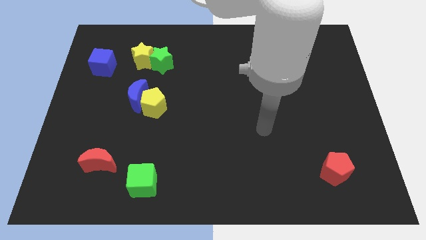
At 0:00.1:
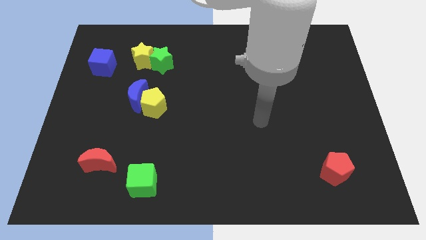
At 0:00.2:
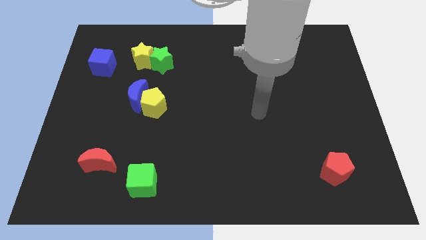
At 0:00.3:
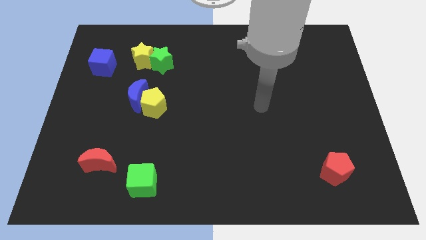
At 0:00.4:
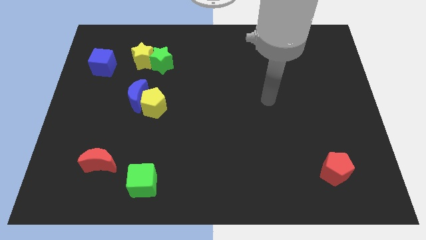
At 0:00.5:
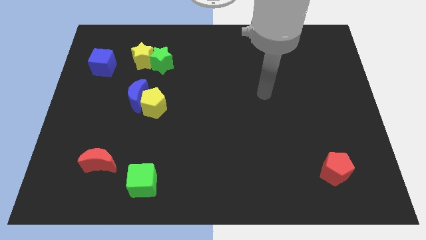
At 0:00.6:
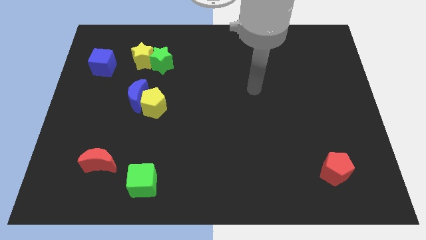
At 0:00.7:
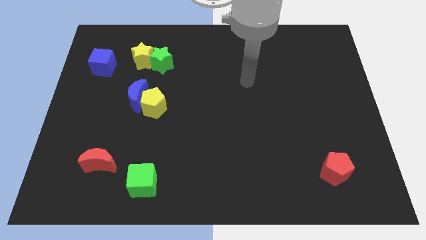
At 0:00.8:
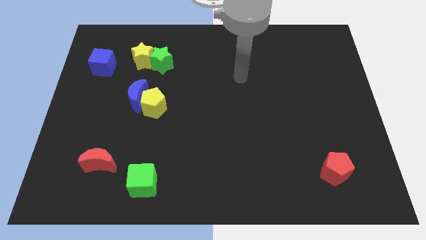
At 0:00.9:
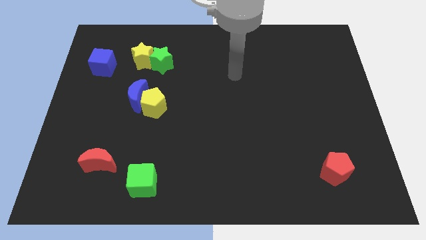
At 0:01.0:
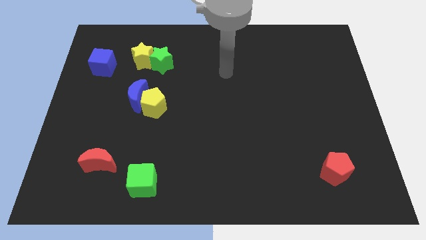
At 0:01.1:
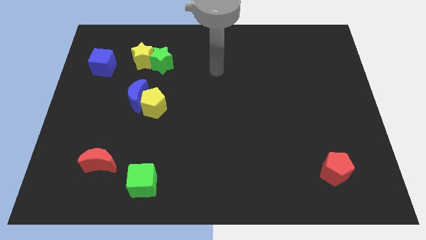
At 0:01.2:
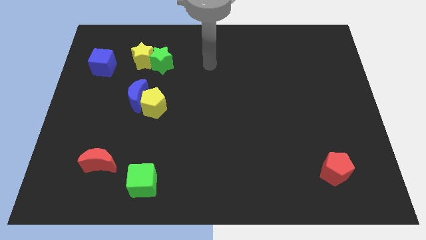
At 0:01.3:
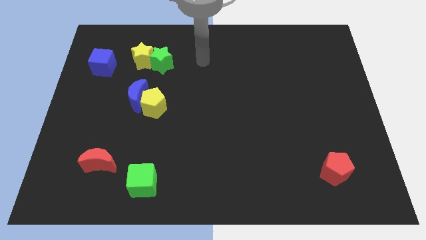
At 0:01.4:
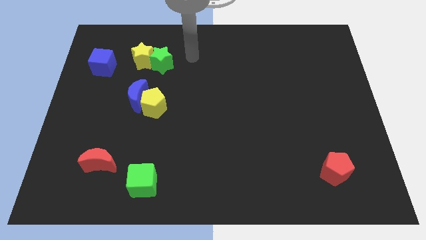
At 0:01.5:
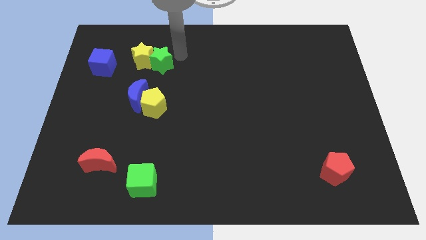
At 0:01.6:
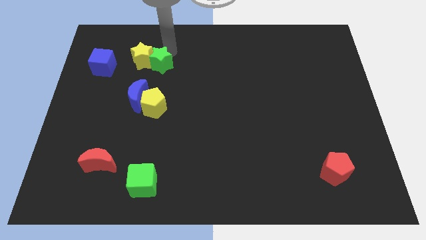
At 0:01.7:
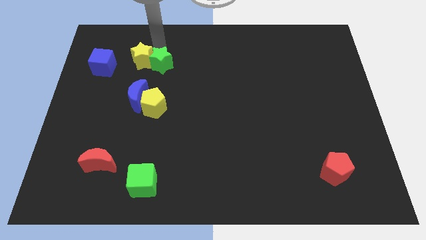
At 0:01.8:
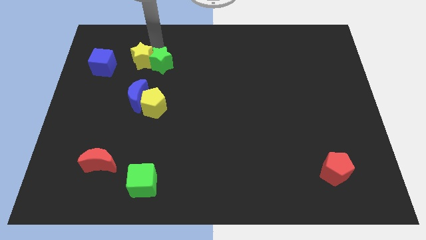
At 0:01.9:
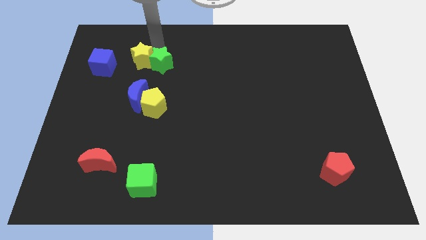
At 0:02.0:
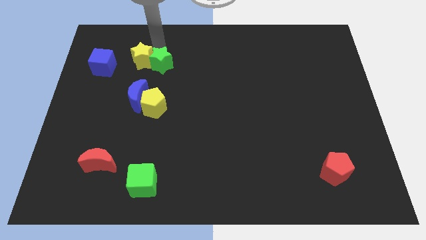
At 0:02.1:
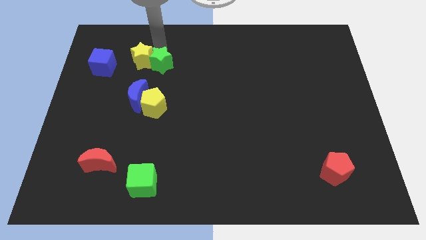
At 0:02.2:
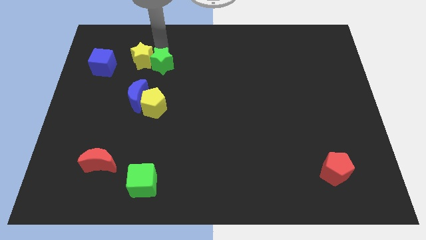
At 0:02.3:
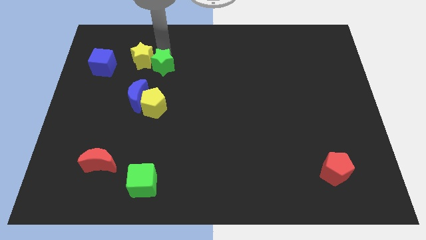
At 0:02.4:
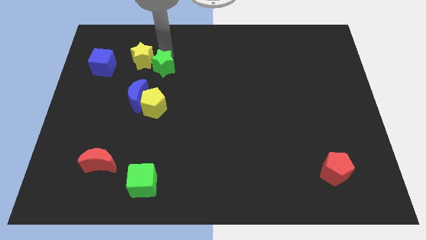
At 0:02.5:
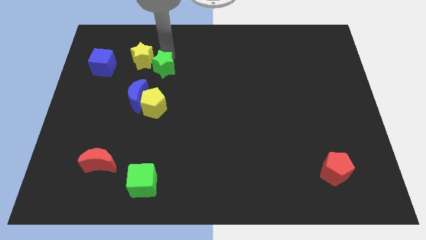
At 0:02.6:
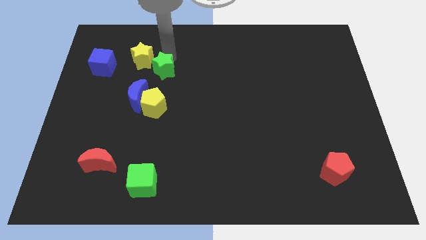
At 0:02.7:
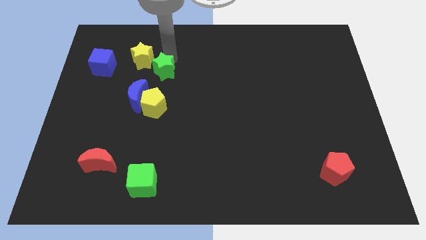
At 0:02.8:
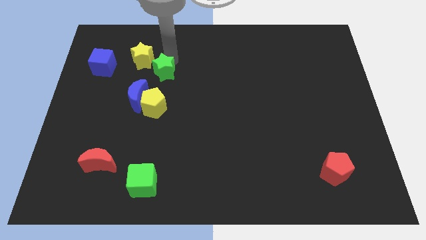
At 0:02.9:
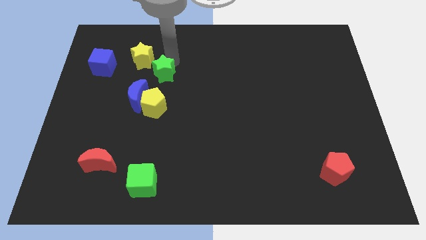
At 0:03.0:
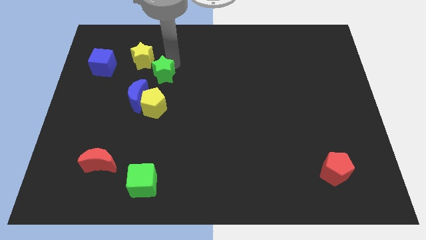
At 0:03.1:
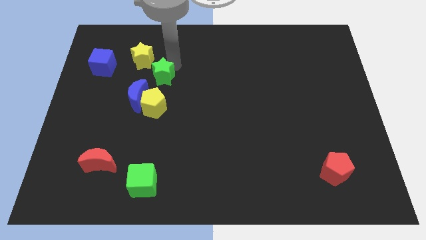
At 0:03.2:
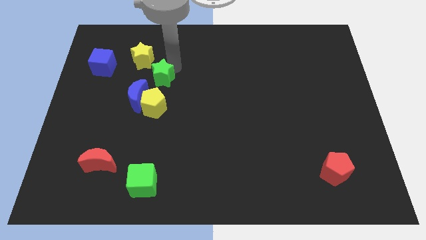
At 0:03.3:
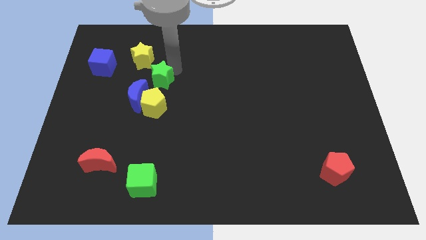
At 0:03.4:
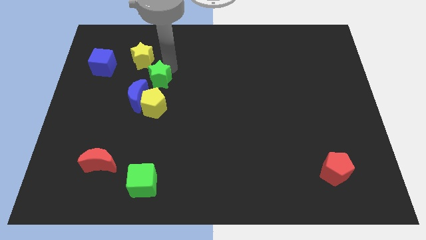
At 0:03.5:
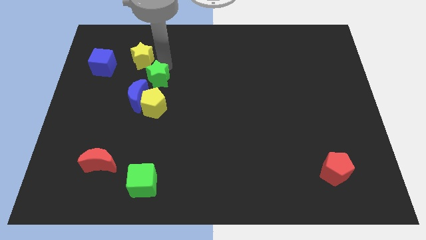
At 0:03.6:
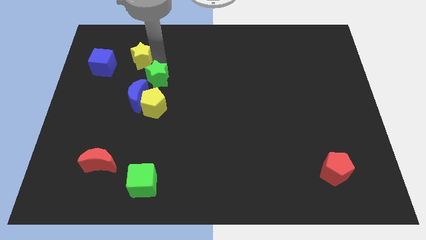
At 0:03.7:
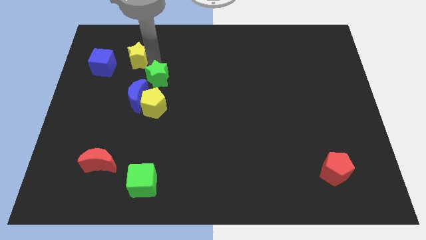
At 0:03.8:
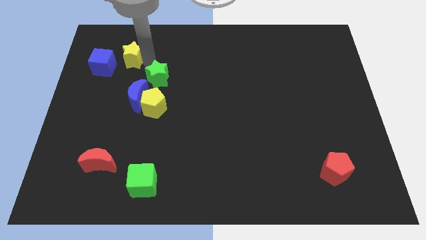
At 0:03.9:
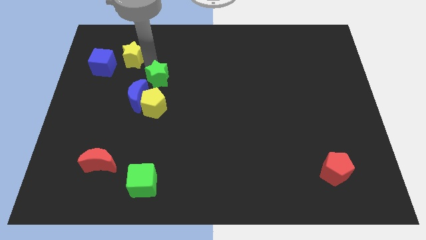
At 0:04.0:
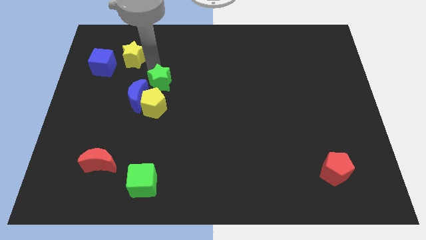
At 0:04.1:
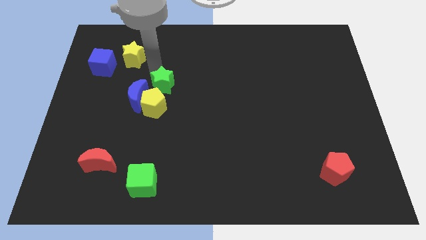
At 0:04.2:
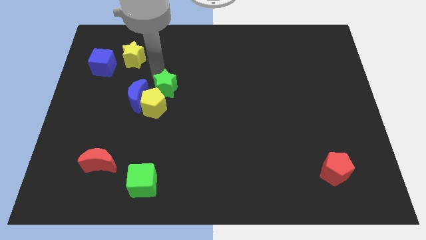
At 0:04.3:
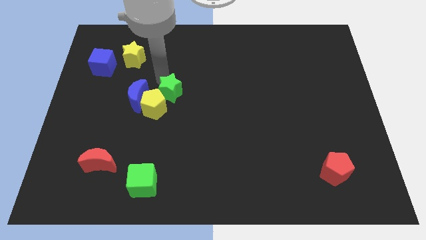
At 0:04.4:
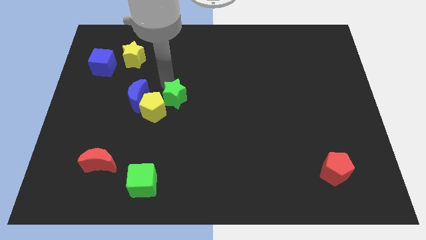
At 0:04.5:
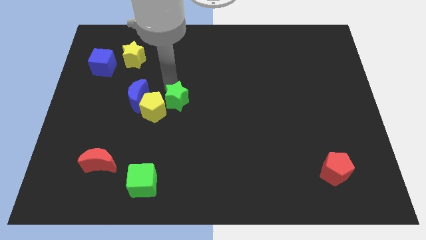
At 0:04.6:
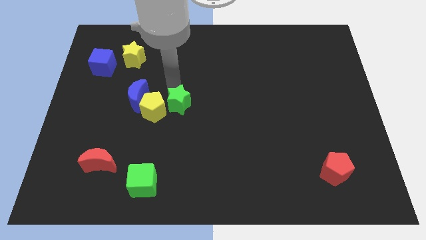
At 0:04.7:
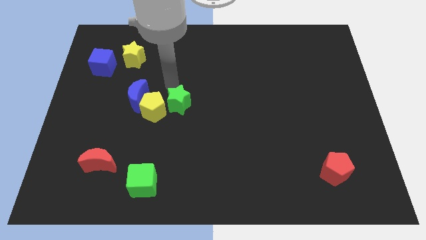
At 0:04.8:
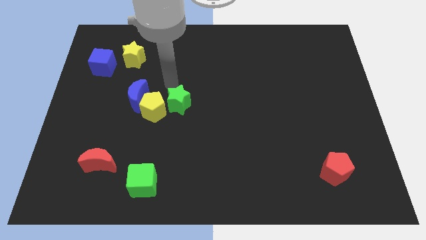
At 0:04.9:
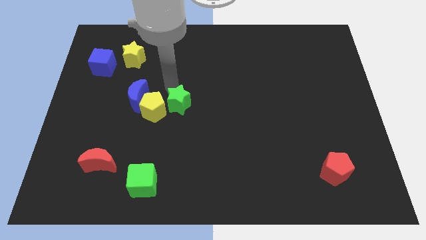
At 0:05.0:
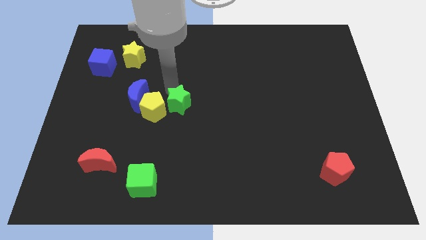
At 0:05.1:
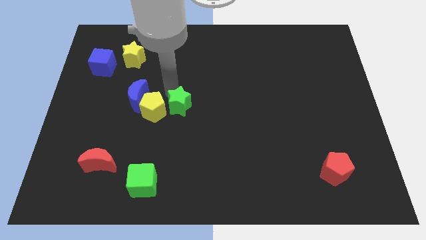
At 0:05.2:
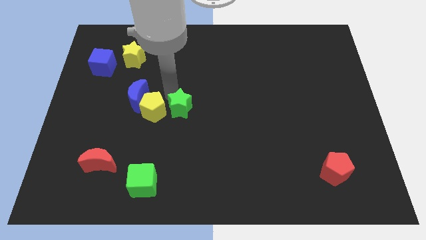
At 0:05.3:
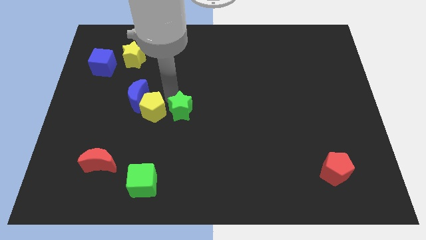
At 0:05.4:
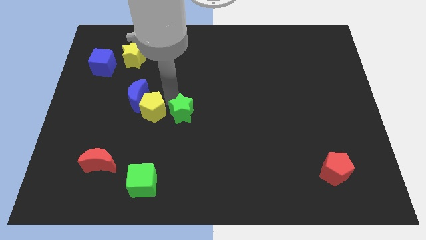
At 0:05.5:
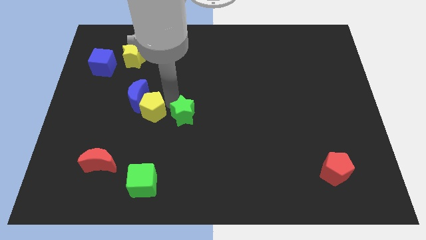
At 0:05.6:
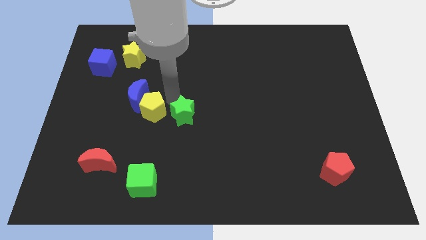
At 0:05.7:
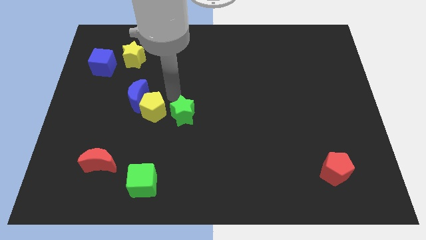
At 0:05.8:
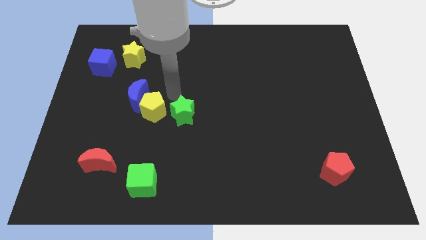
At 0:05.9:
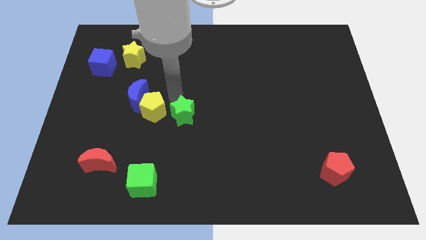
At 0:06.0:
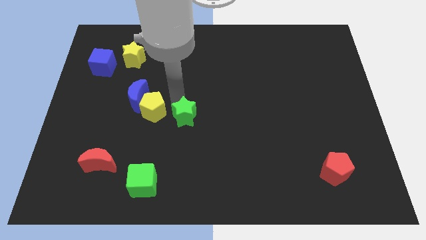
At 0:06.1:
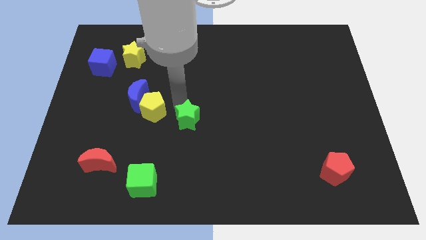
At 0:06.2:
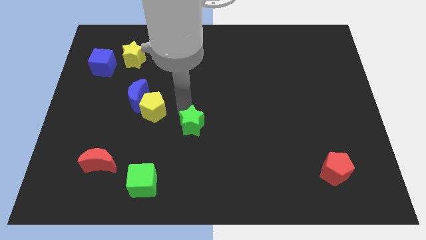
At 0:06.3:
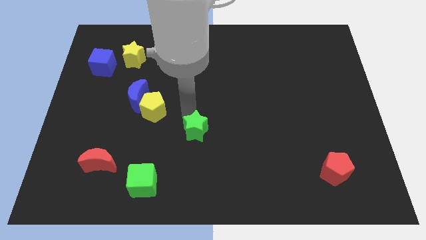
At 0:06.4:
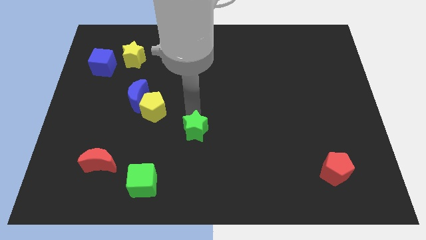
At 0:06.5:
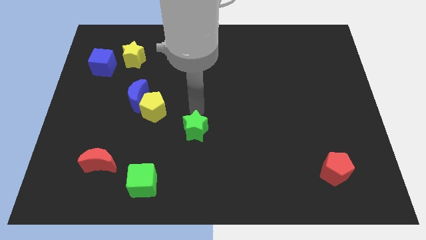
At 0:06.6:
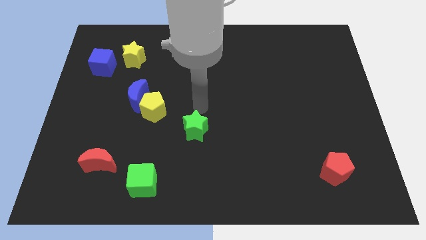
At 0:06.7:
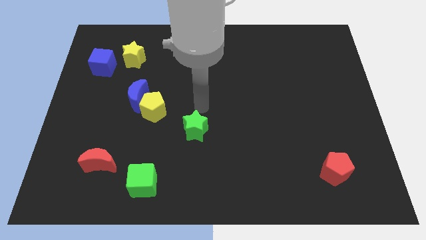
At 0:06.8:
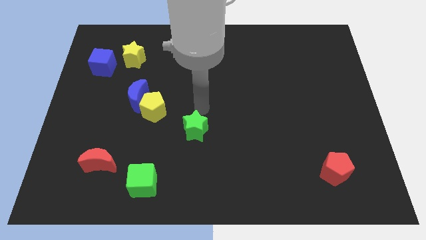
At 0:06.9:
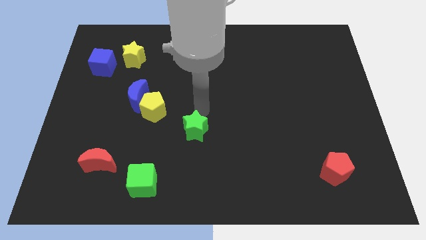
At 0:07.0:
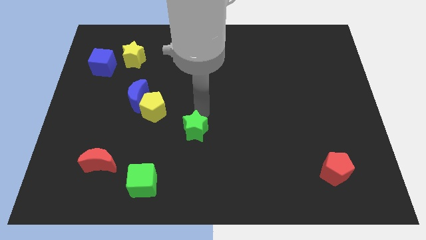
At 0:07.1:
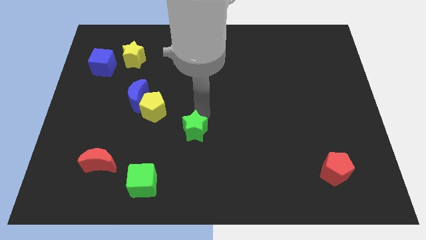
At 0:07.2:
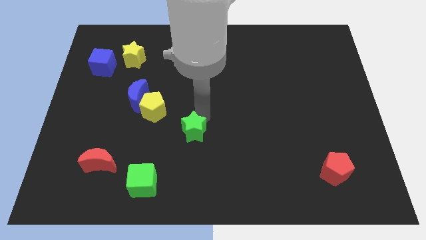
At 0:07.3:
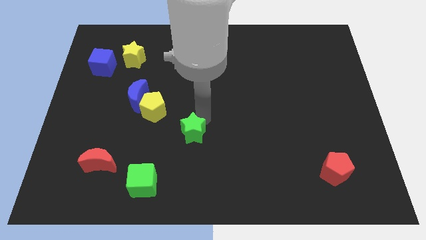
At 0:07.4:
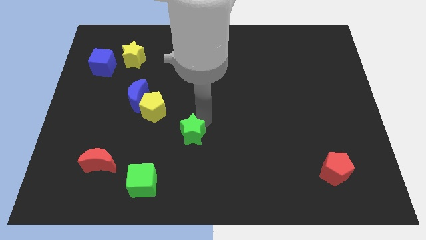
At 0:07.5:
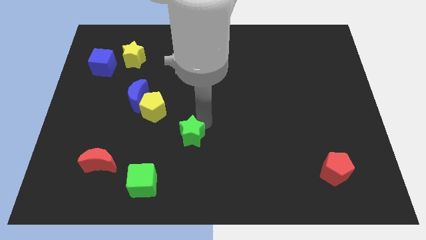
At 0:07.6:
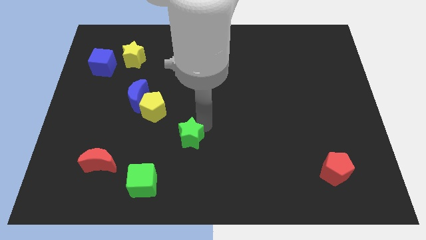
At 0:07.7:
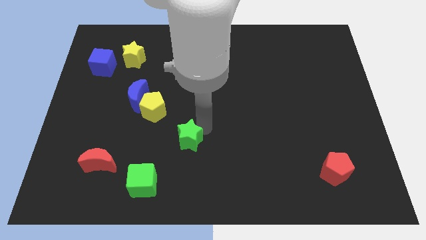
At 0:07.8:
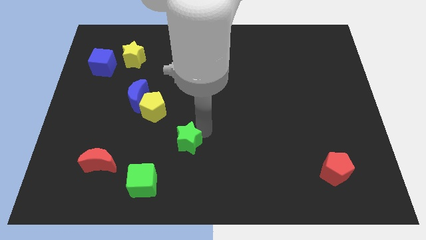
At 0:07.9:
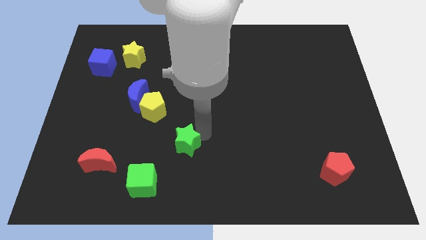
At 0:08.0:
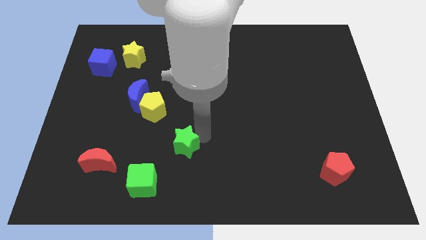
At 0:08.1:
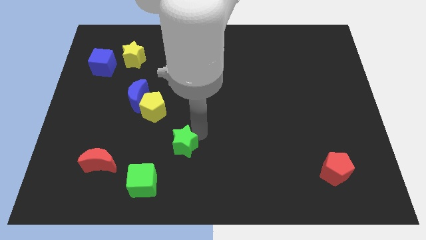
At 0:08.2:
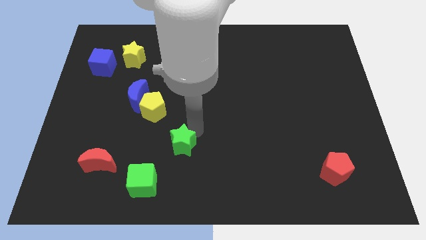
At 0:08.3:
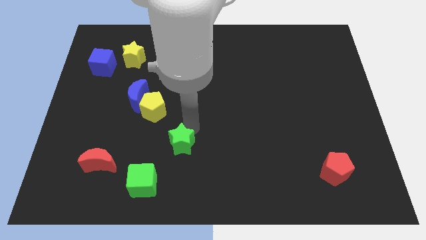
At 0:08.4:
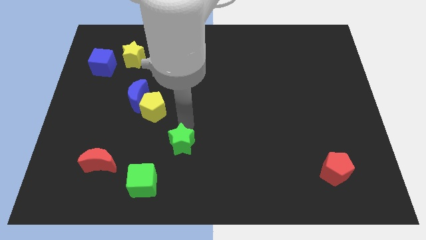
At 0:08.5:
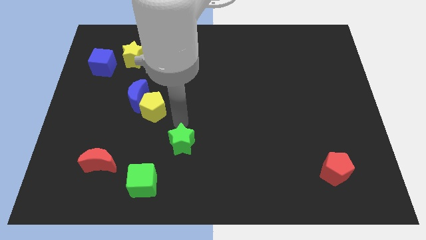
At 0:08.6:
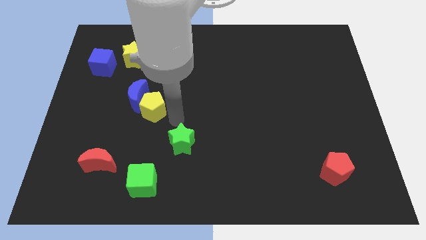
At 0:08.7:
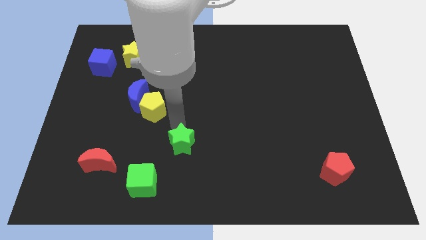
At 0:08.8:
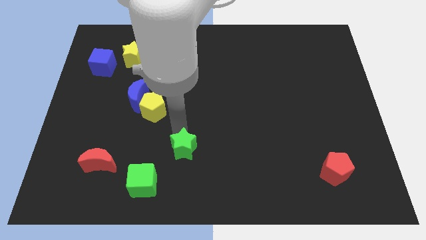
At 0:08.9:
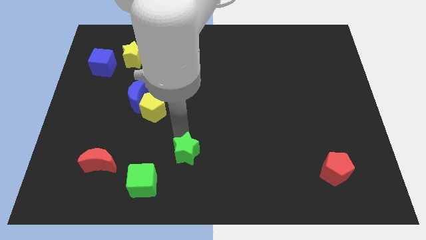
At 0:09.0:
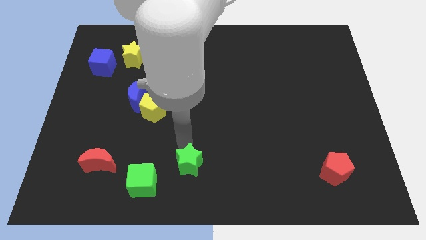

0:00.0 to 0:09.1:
move the green star to the bottom side
